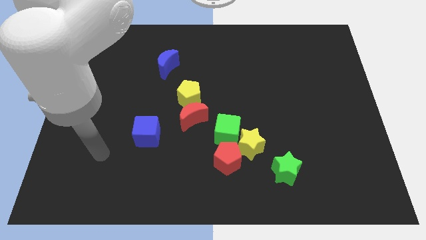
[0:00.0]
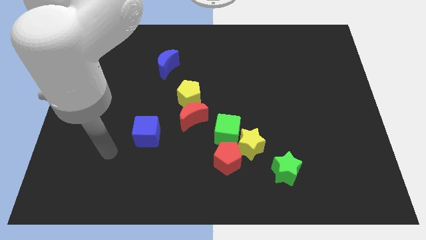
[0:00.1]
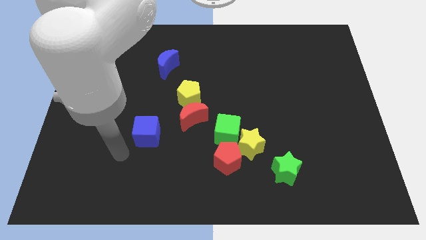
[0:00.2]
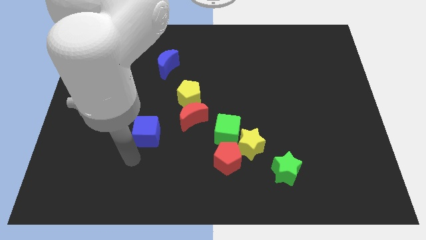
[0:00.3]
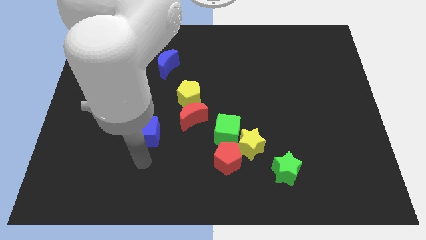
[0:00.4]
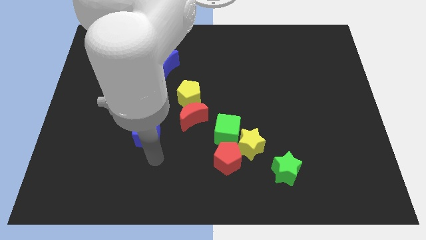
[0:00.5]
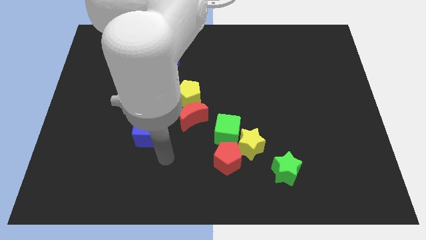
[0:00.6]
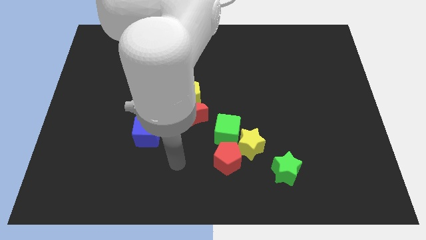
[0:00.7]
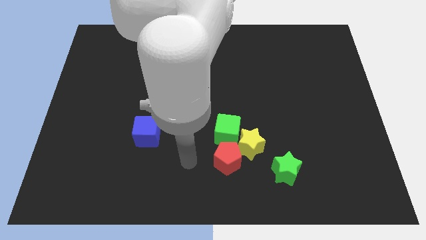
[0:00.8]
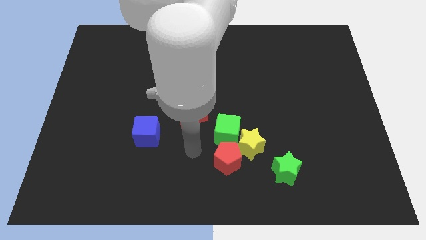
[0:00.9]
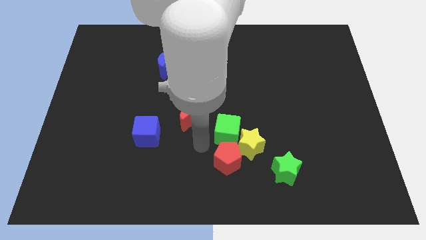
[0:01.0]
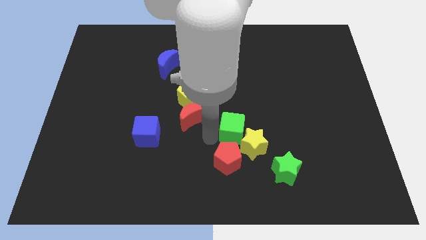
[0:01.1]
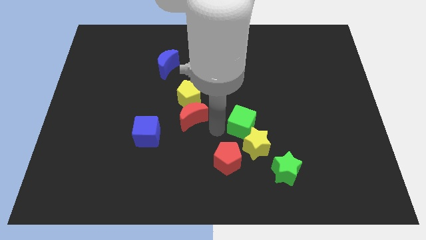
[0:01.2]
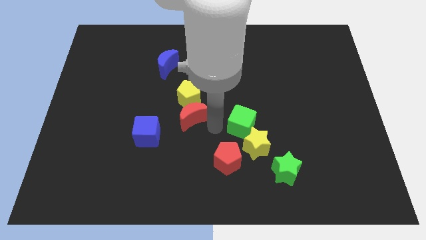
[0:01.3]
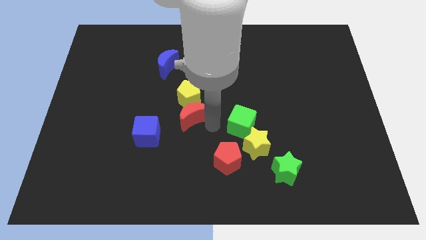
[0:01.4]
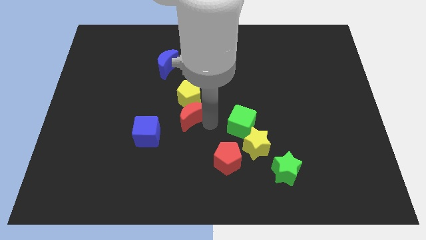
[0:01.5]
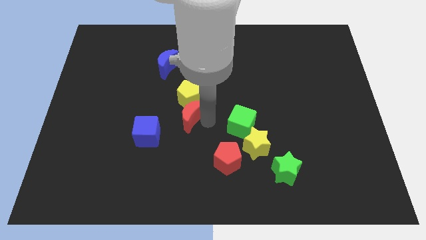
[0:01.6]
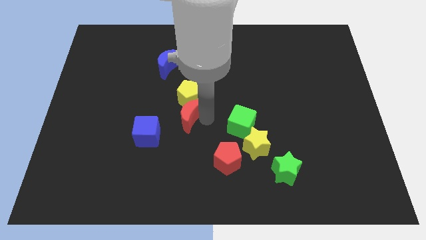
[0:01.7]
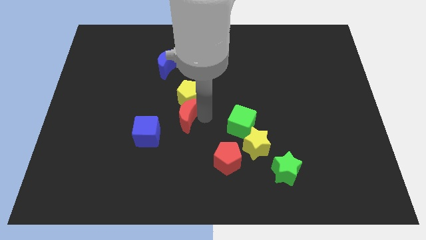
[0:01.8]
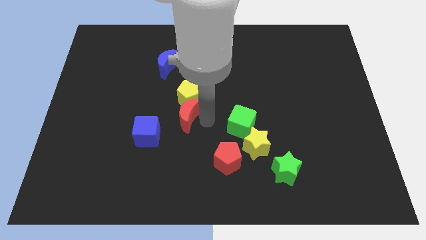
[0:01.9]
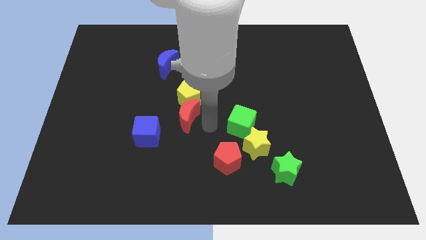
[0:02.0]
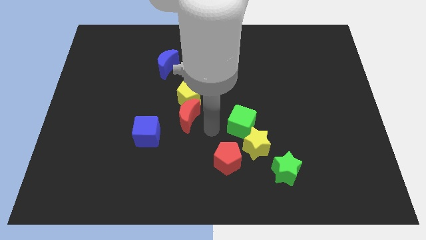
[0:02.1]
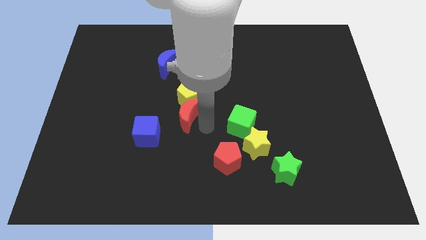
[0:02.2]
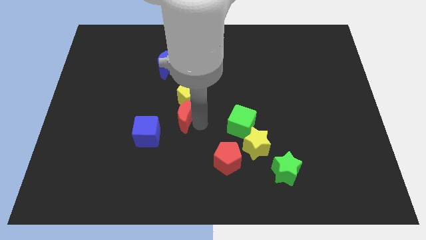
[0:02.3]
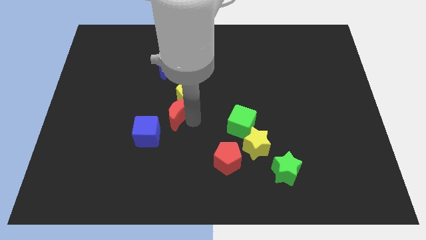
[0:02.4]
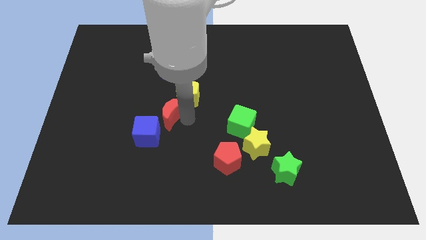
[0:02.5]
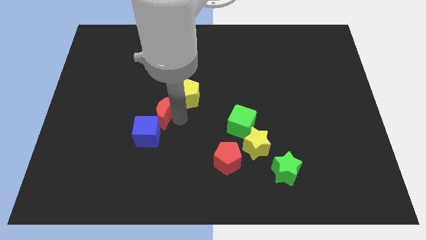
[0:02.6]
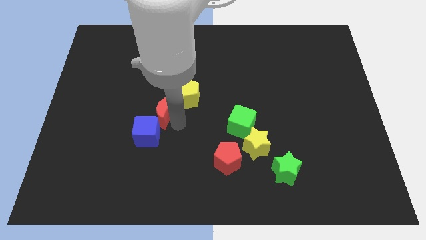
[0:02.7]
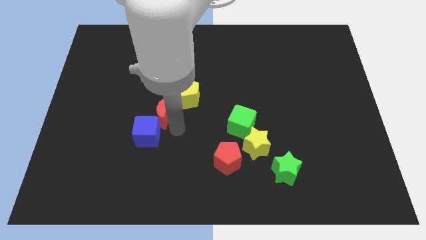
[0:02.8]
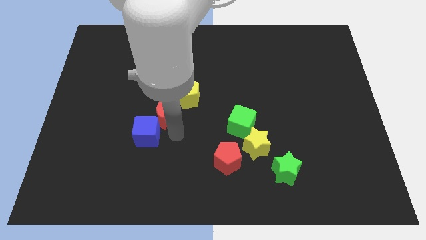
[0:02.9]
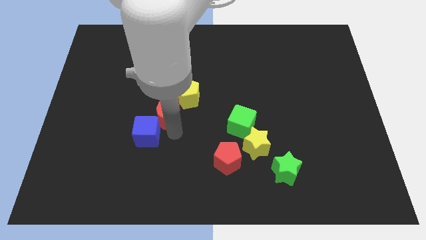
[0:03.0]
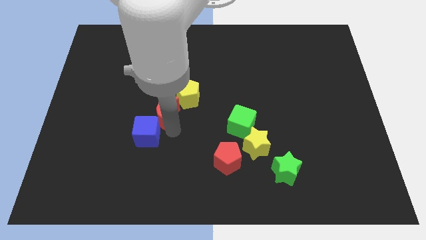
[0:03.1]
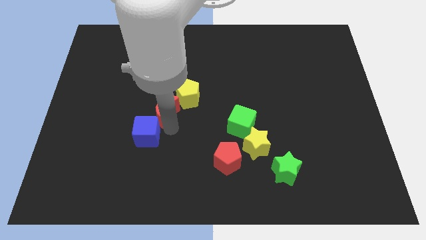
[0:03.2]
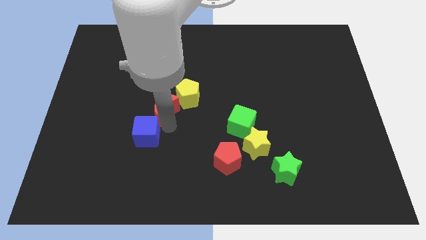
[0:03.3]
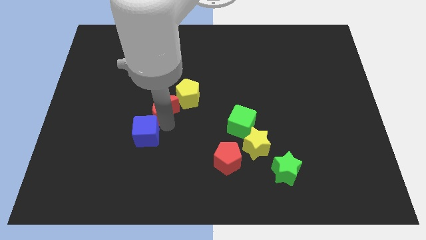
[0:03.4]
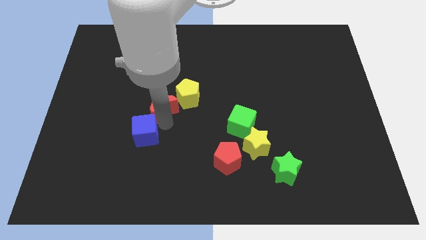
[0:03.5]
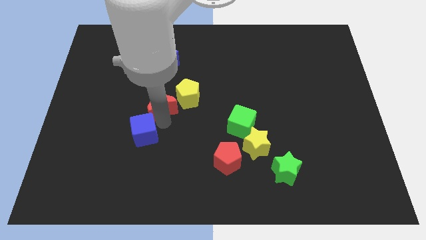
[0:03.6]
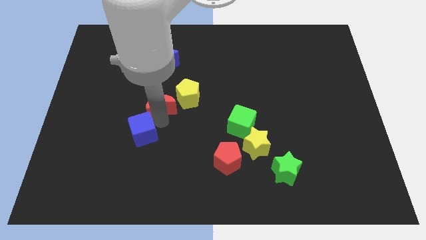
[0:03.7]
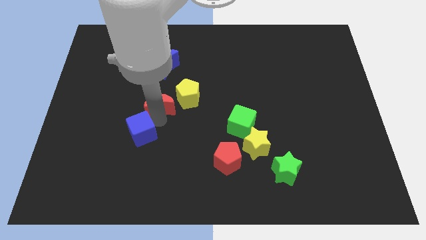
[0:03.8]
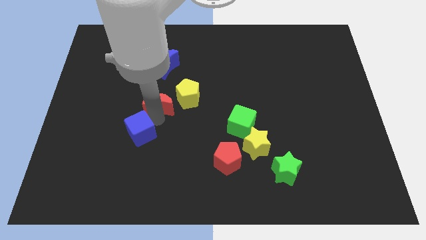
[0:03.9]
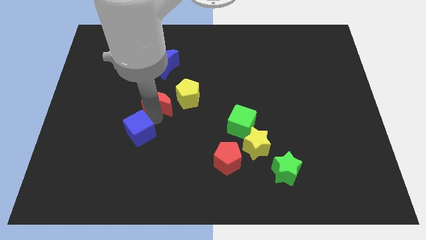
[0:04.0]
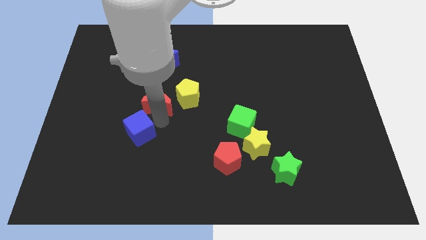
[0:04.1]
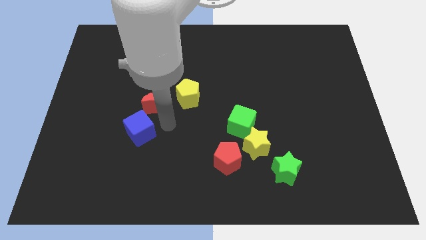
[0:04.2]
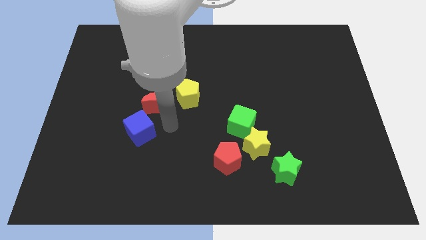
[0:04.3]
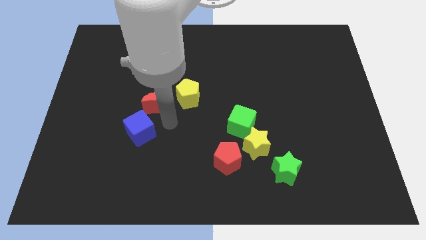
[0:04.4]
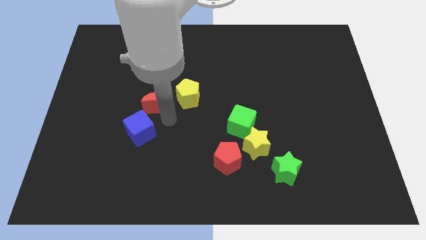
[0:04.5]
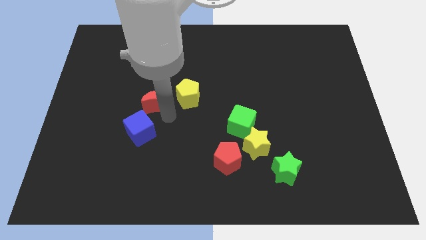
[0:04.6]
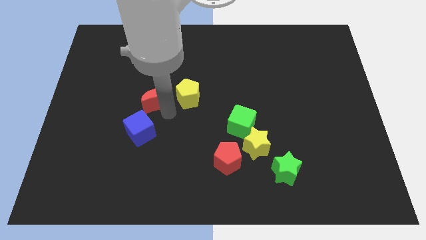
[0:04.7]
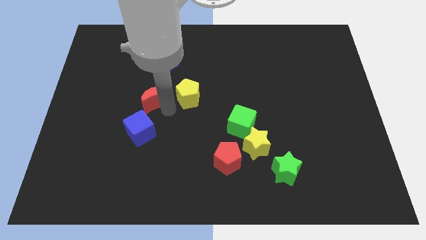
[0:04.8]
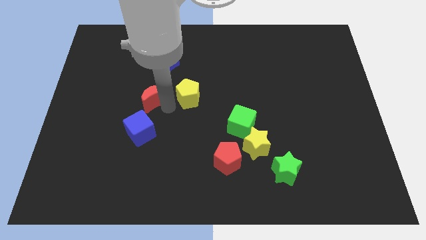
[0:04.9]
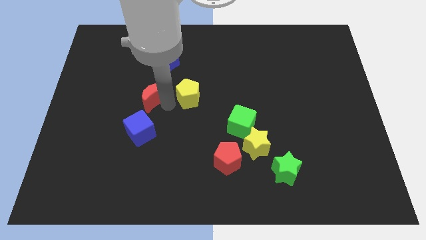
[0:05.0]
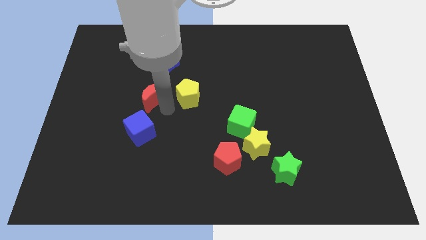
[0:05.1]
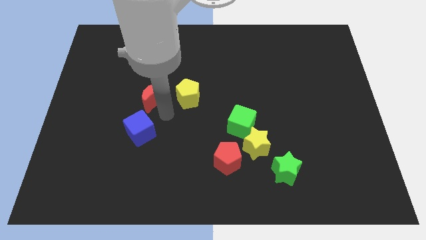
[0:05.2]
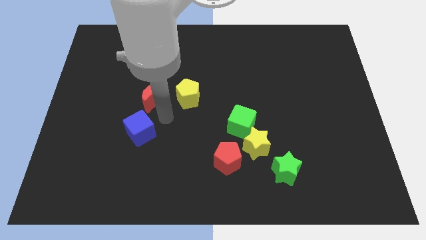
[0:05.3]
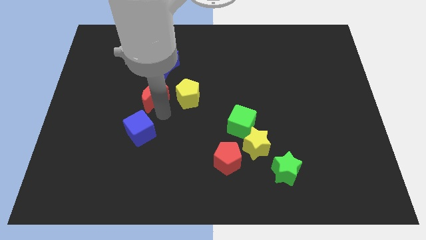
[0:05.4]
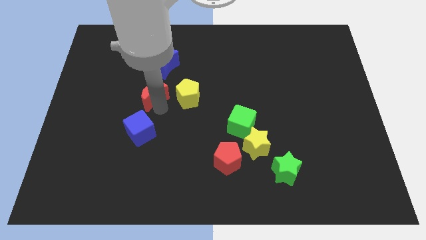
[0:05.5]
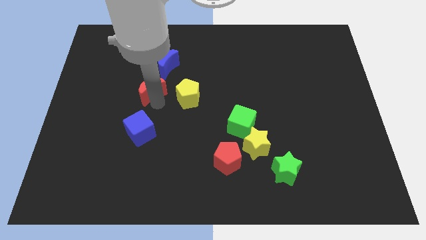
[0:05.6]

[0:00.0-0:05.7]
slide the red moon diagonally down and to the left of the blue moon

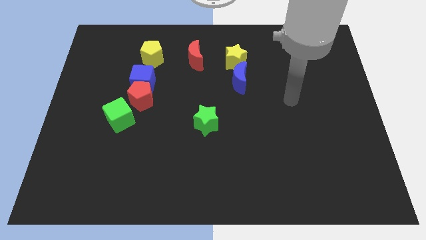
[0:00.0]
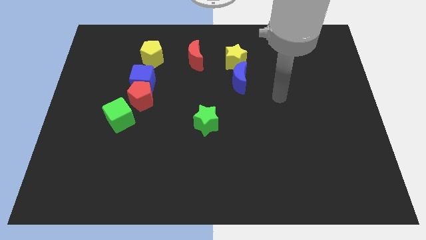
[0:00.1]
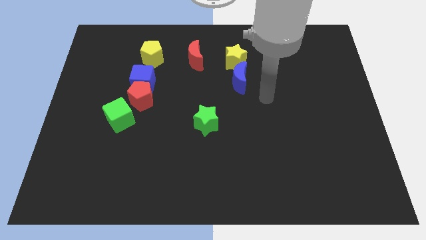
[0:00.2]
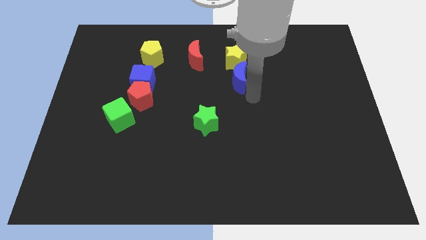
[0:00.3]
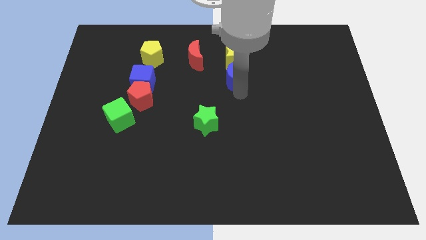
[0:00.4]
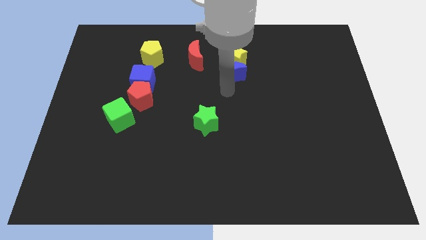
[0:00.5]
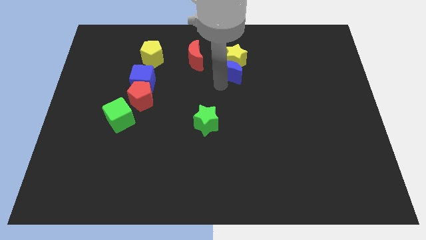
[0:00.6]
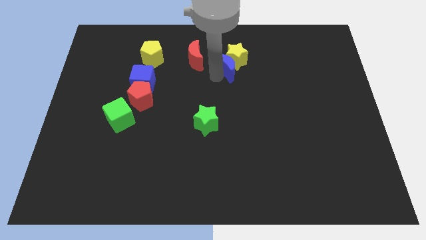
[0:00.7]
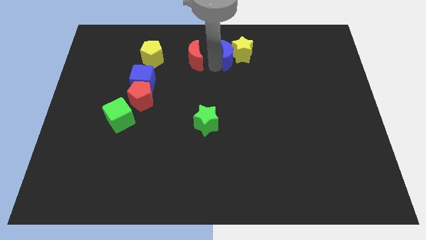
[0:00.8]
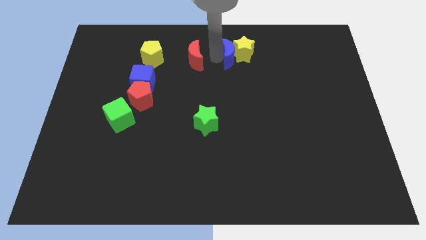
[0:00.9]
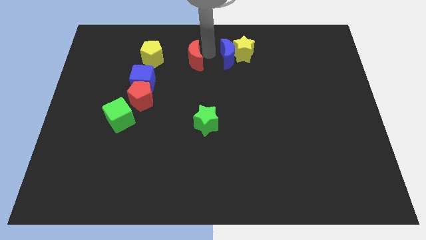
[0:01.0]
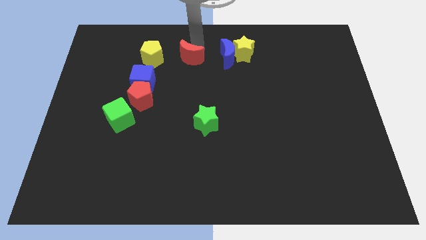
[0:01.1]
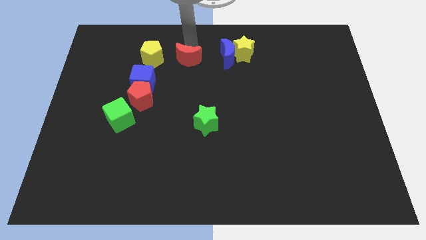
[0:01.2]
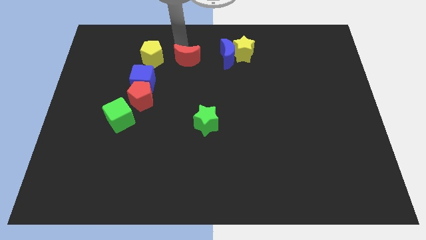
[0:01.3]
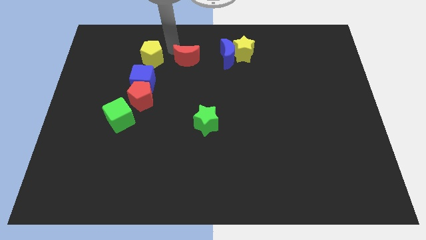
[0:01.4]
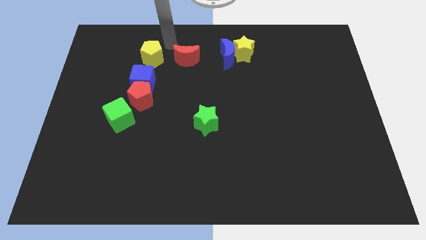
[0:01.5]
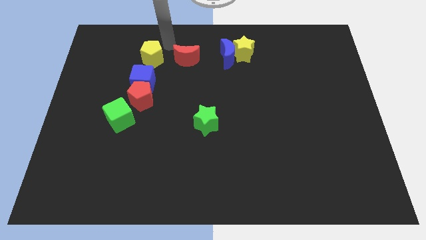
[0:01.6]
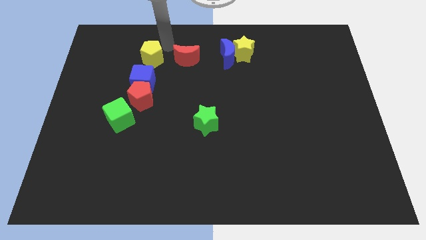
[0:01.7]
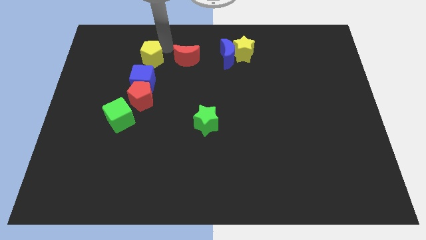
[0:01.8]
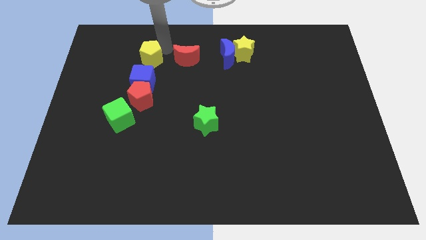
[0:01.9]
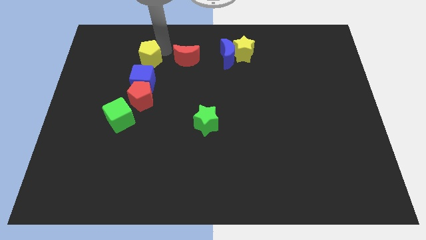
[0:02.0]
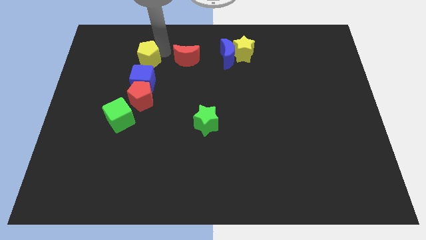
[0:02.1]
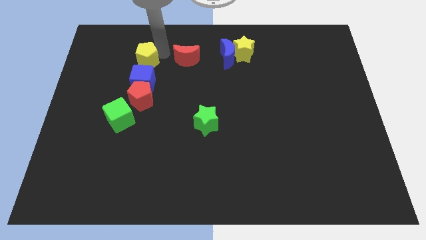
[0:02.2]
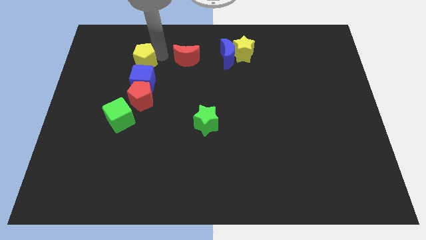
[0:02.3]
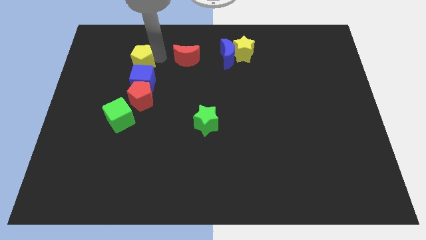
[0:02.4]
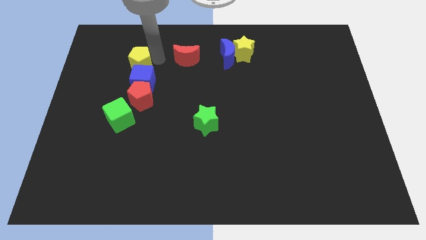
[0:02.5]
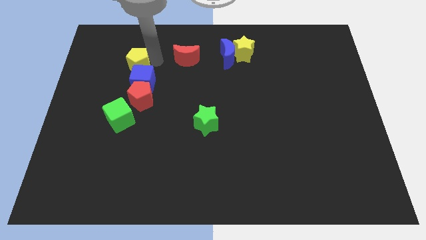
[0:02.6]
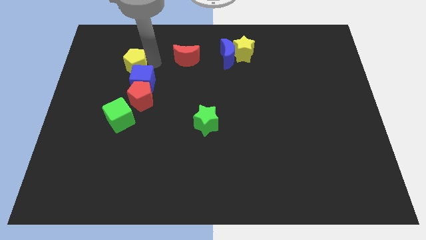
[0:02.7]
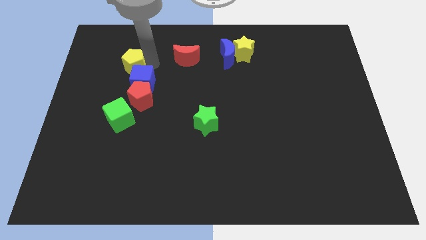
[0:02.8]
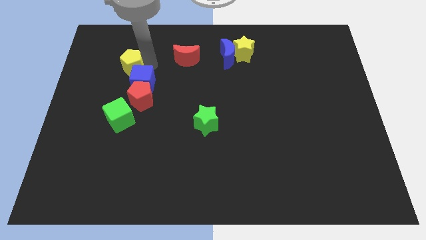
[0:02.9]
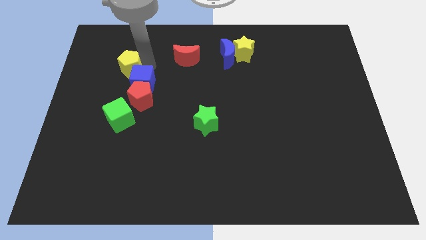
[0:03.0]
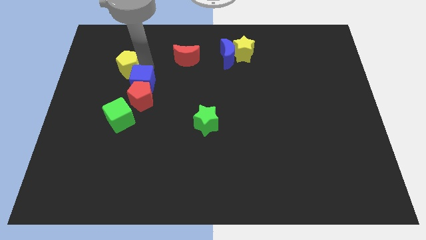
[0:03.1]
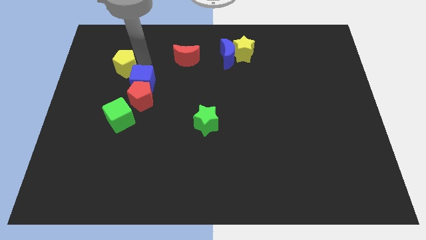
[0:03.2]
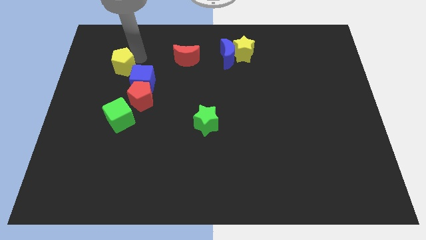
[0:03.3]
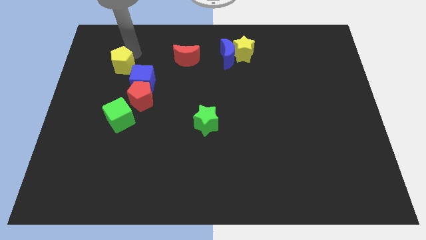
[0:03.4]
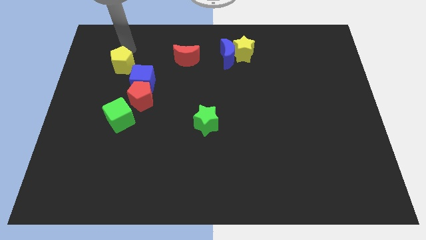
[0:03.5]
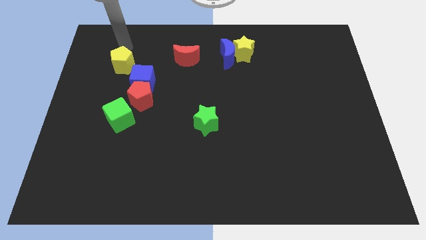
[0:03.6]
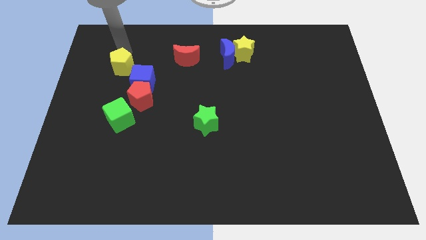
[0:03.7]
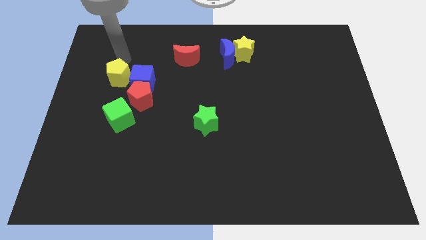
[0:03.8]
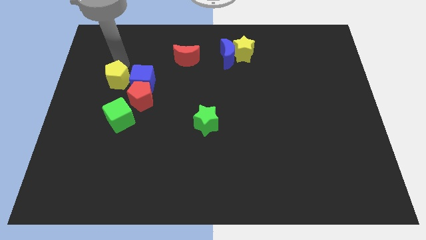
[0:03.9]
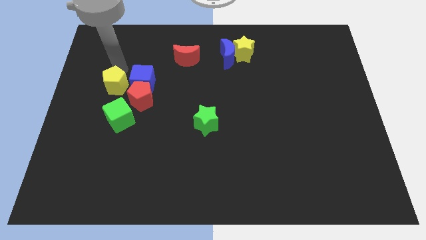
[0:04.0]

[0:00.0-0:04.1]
push the yellow pentagon to the bottom left of the blue cube
